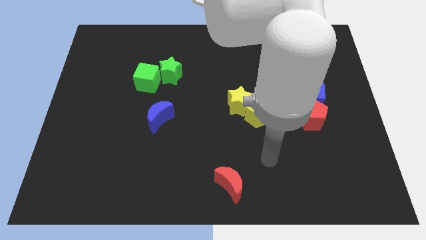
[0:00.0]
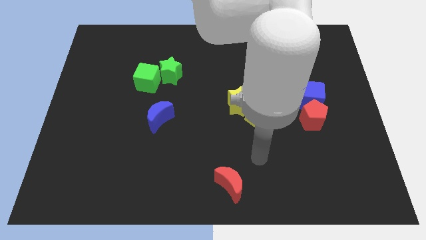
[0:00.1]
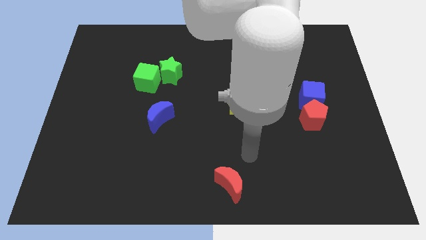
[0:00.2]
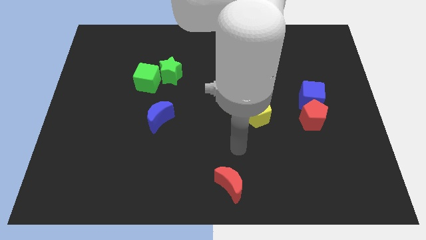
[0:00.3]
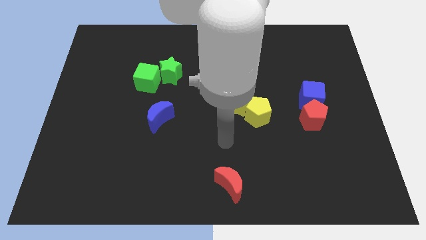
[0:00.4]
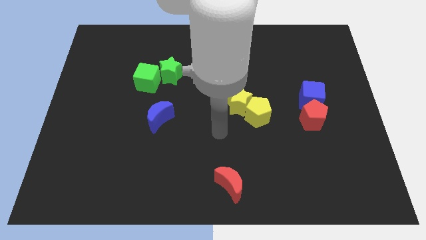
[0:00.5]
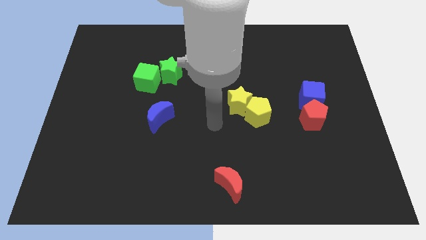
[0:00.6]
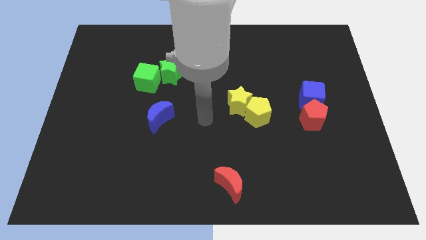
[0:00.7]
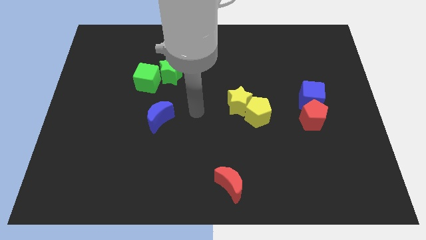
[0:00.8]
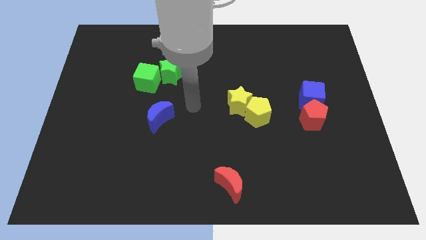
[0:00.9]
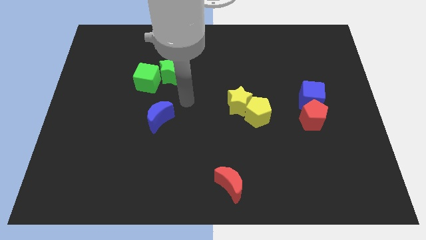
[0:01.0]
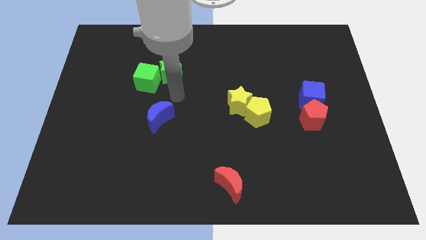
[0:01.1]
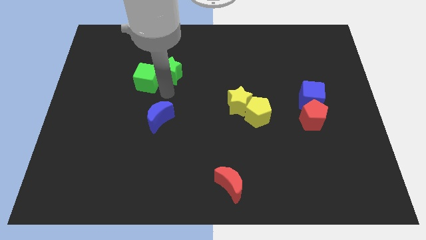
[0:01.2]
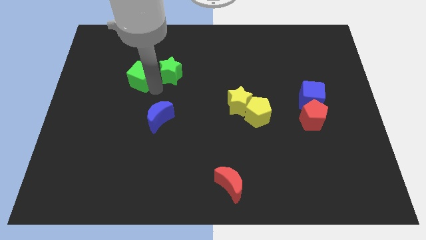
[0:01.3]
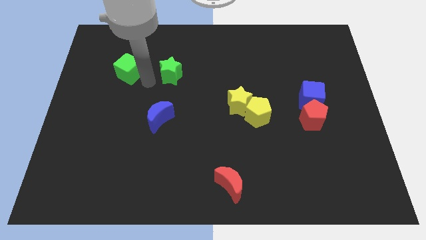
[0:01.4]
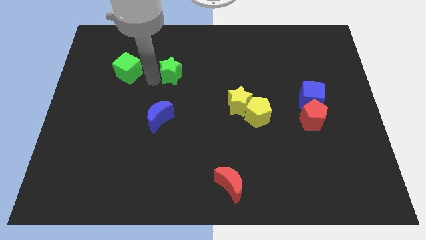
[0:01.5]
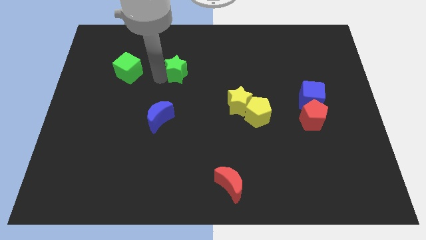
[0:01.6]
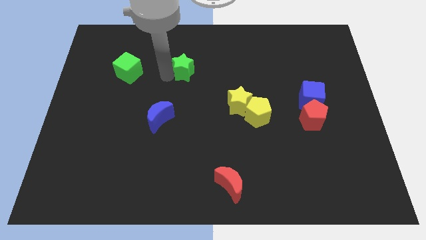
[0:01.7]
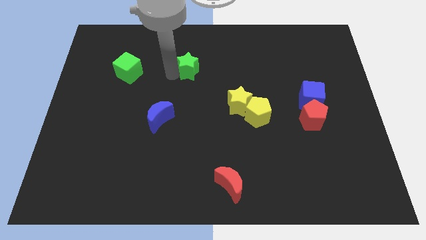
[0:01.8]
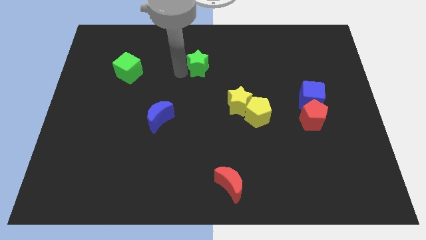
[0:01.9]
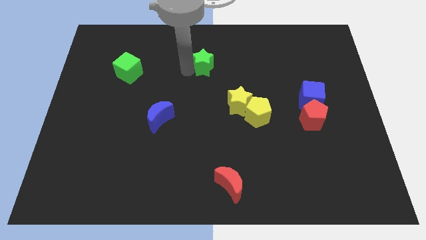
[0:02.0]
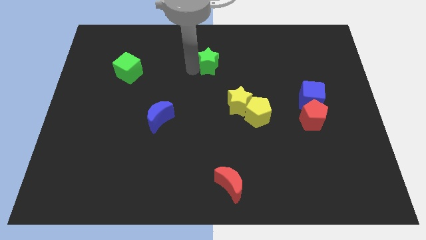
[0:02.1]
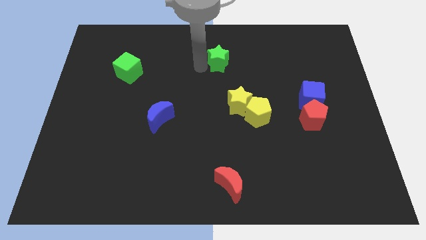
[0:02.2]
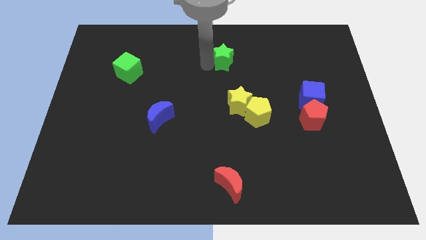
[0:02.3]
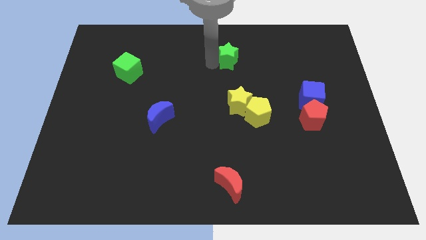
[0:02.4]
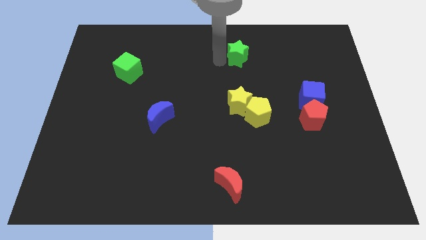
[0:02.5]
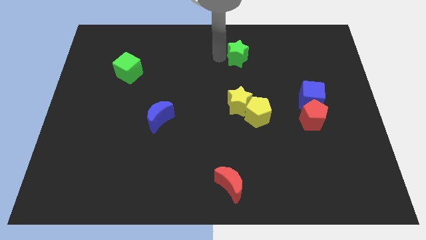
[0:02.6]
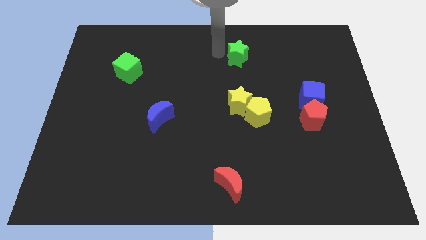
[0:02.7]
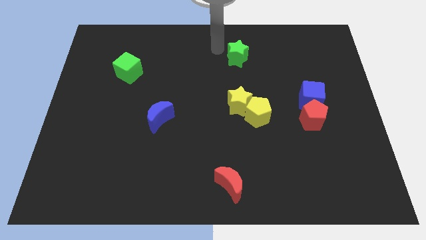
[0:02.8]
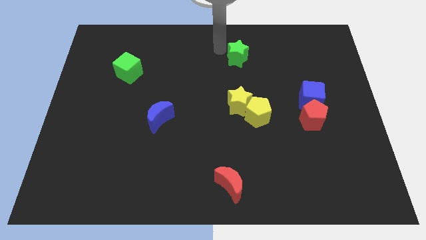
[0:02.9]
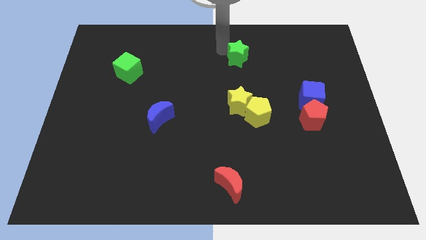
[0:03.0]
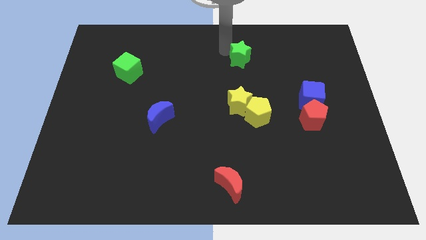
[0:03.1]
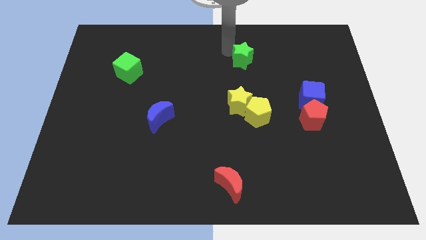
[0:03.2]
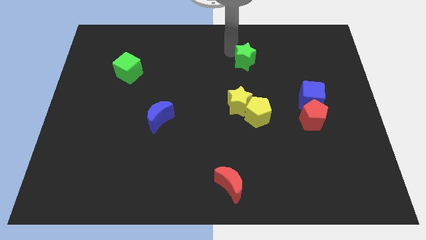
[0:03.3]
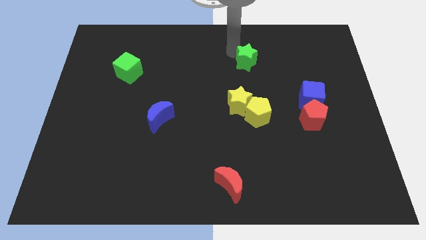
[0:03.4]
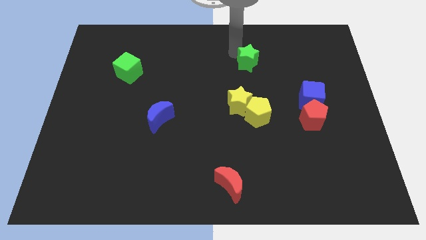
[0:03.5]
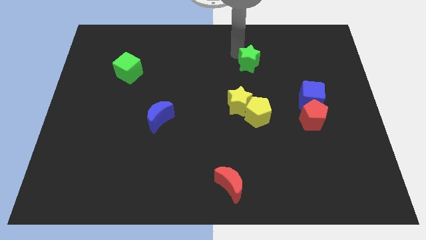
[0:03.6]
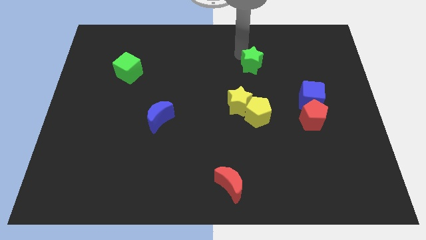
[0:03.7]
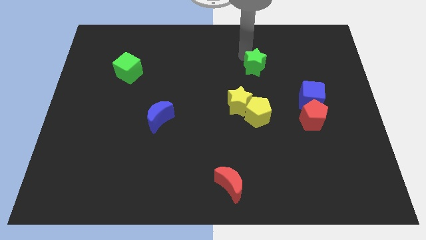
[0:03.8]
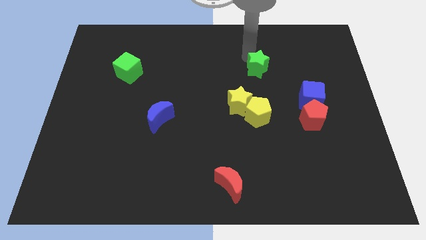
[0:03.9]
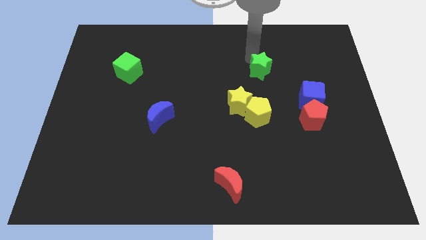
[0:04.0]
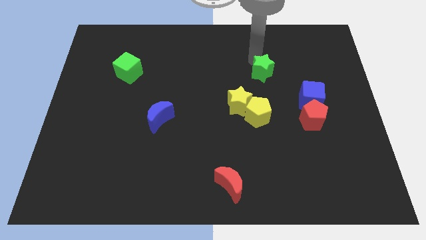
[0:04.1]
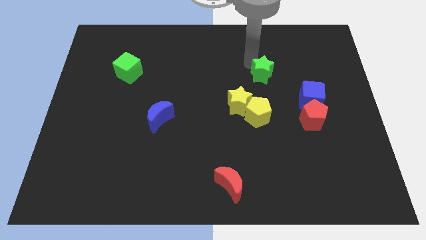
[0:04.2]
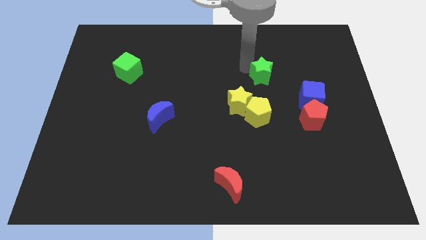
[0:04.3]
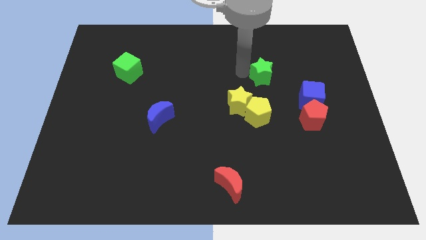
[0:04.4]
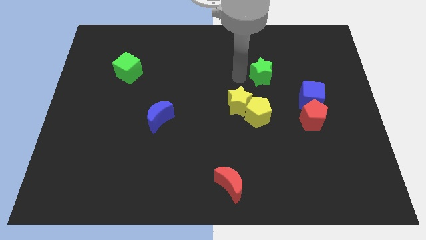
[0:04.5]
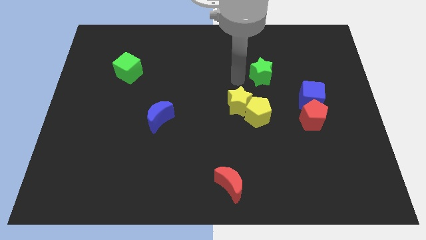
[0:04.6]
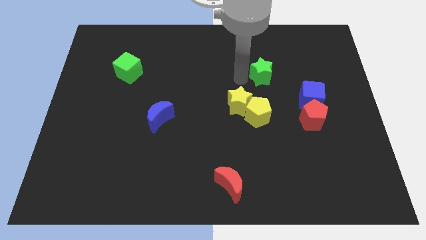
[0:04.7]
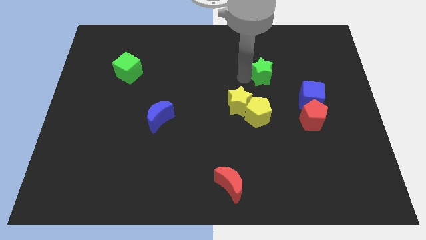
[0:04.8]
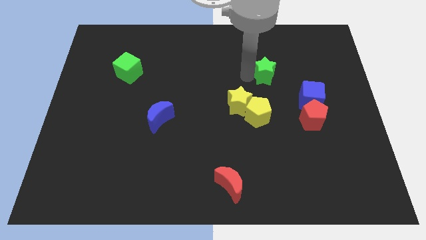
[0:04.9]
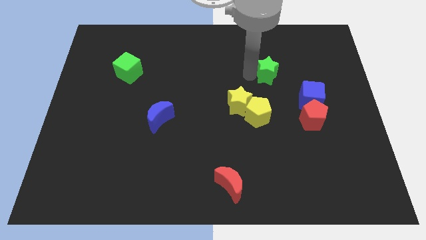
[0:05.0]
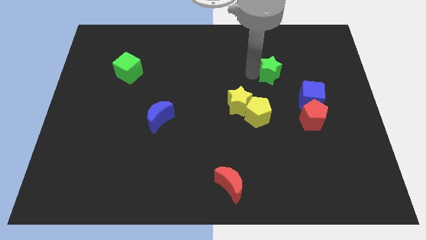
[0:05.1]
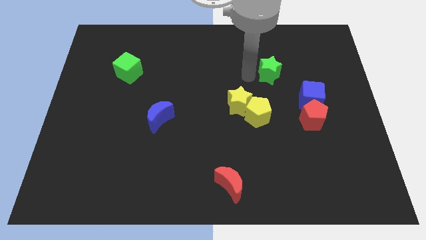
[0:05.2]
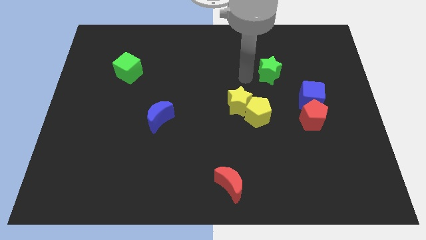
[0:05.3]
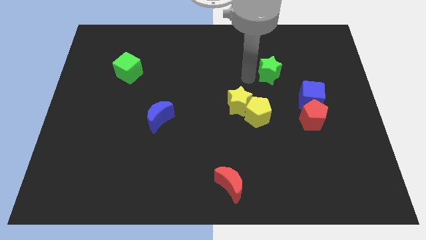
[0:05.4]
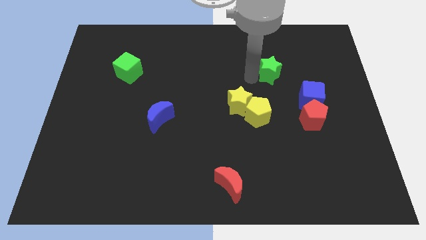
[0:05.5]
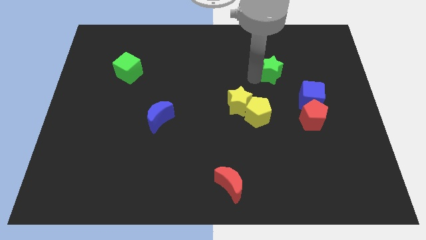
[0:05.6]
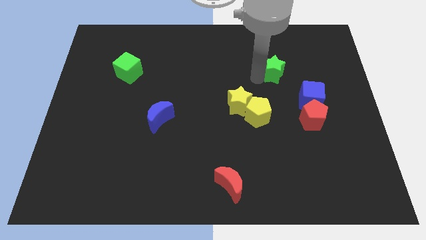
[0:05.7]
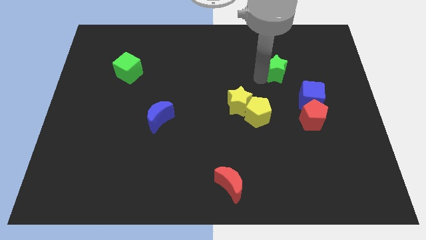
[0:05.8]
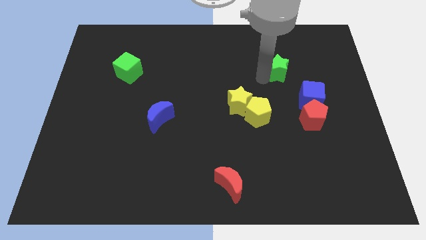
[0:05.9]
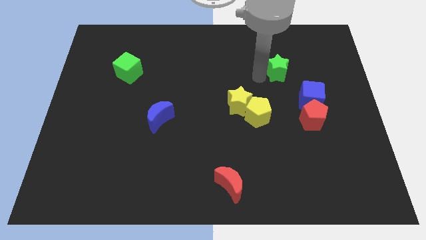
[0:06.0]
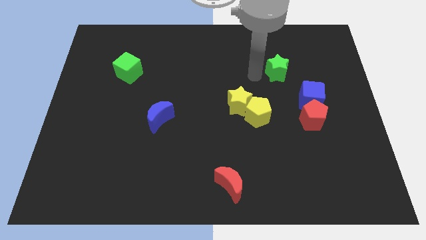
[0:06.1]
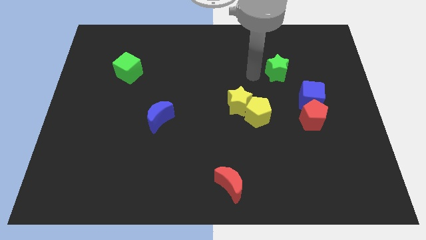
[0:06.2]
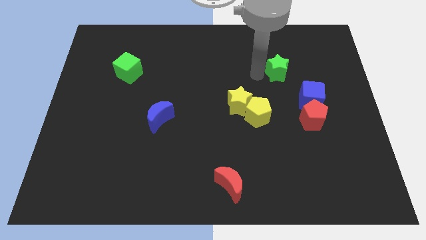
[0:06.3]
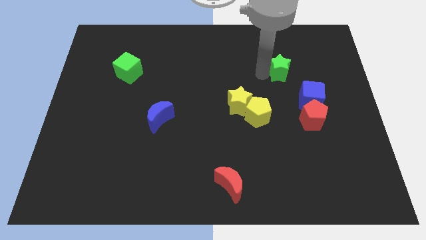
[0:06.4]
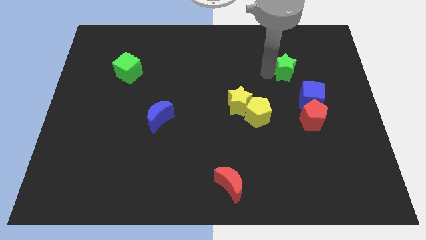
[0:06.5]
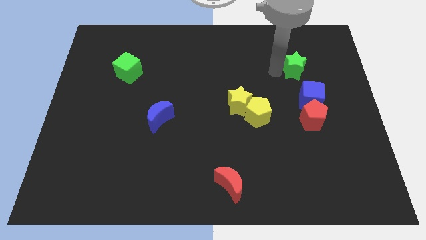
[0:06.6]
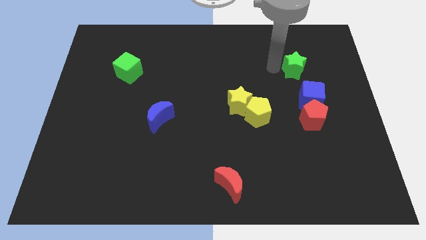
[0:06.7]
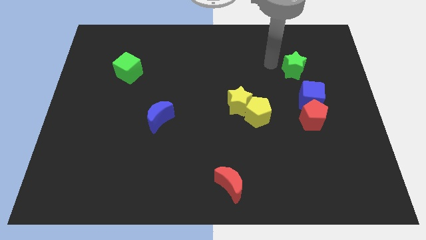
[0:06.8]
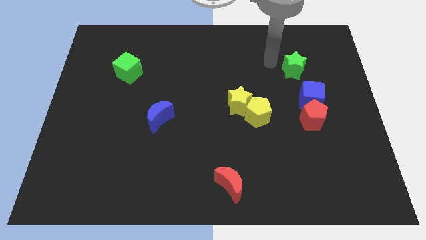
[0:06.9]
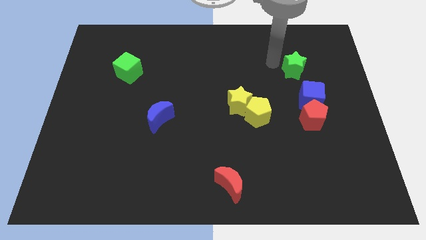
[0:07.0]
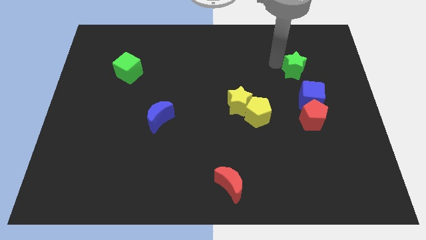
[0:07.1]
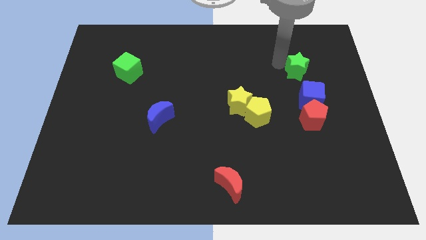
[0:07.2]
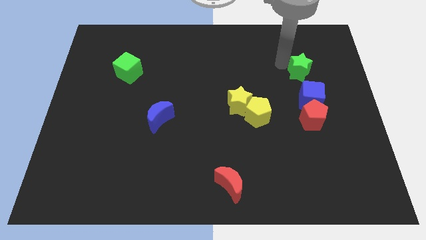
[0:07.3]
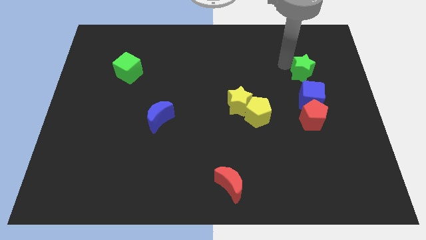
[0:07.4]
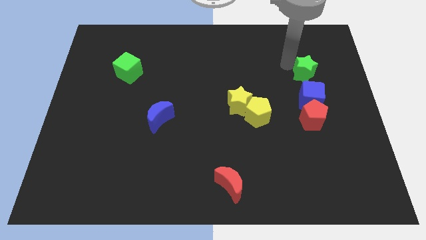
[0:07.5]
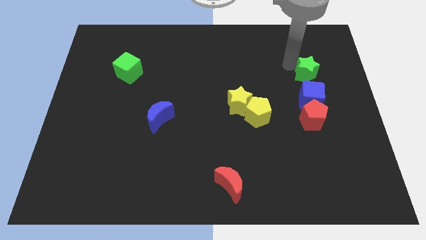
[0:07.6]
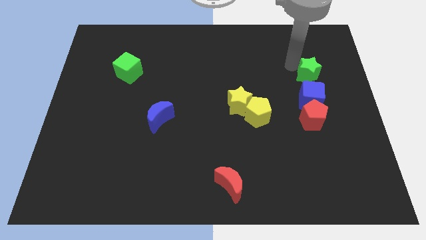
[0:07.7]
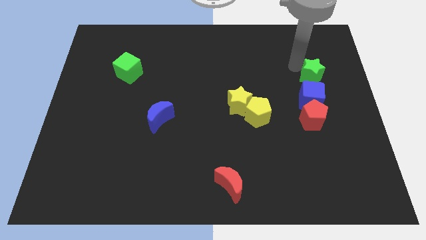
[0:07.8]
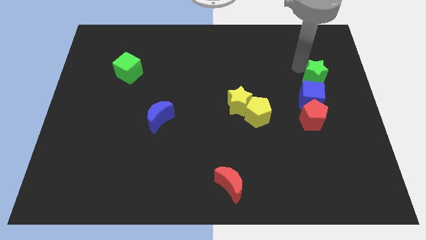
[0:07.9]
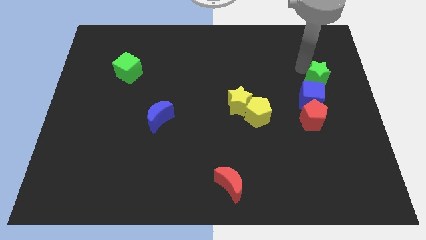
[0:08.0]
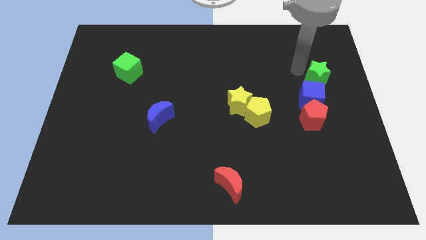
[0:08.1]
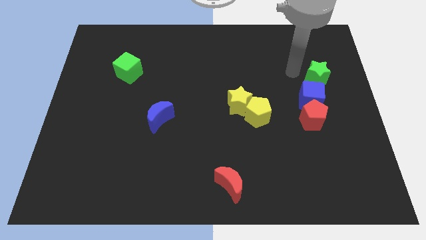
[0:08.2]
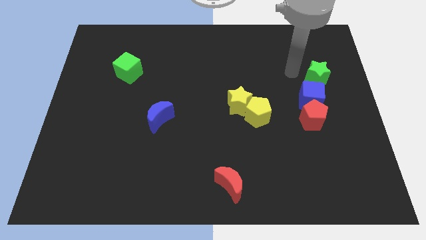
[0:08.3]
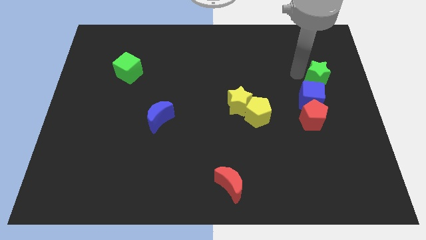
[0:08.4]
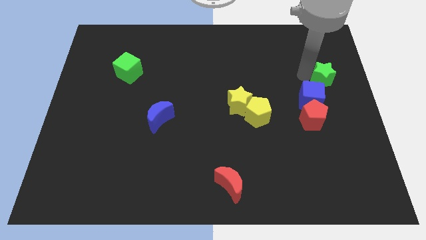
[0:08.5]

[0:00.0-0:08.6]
move the green star to the center right
